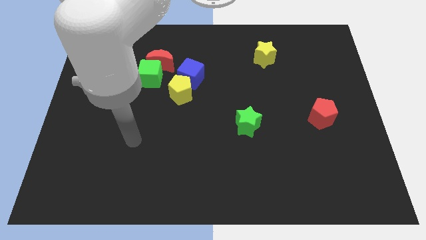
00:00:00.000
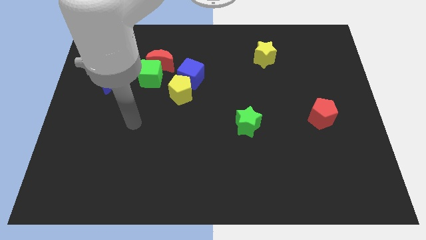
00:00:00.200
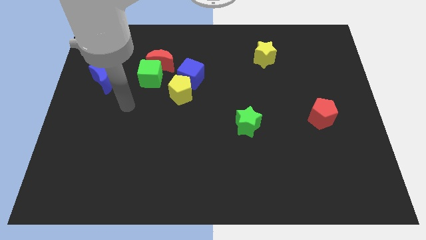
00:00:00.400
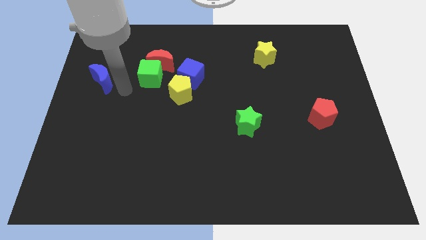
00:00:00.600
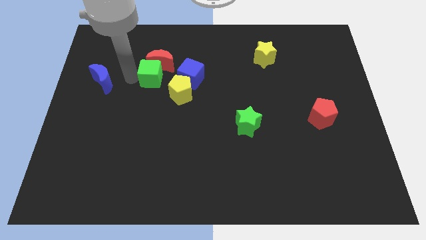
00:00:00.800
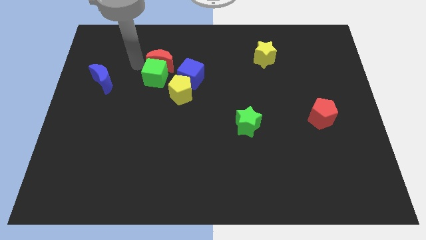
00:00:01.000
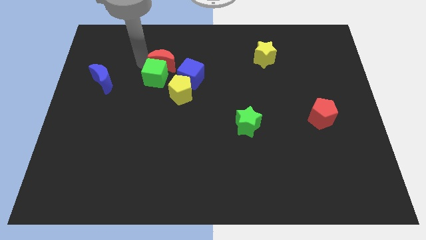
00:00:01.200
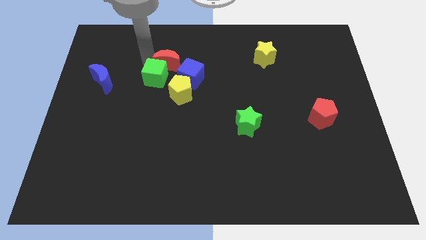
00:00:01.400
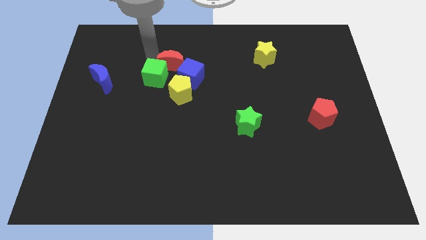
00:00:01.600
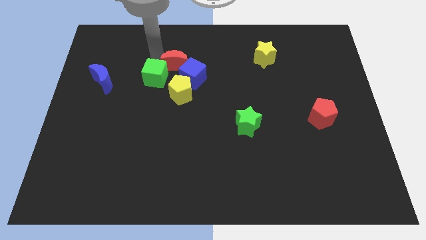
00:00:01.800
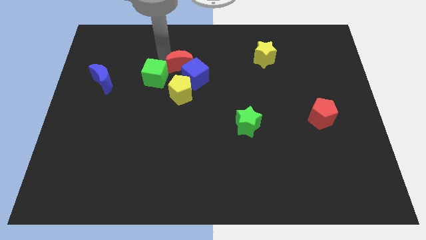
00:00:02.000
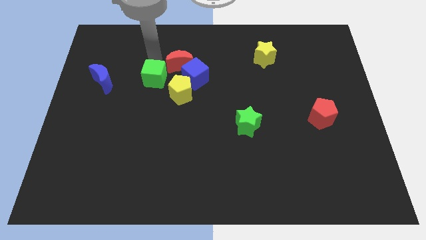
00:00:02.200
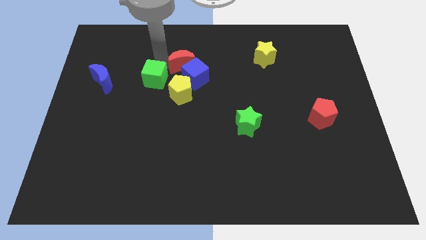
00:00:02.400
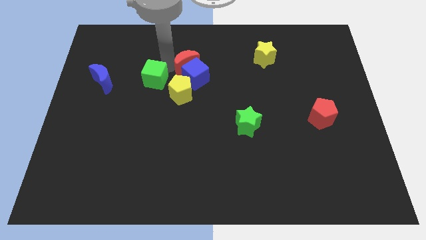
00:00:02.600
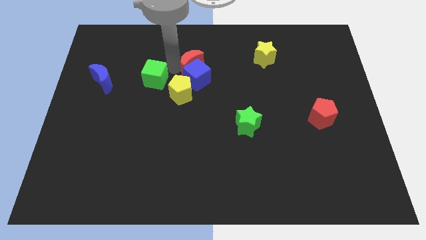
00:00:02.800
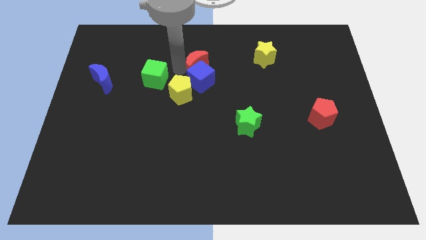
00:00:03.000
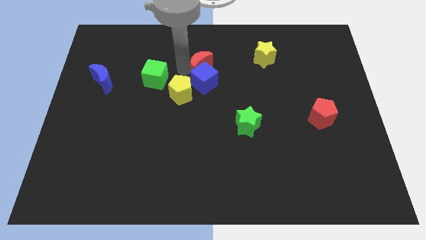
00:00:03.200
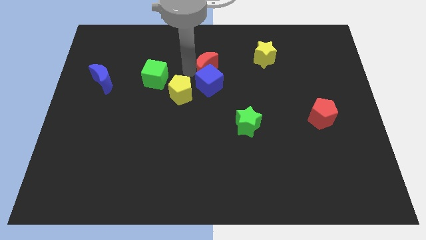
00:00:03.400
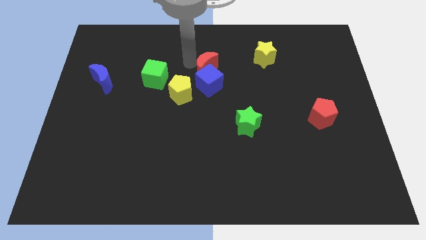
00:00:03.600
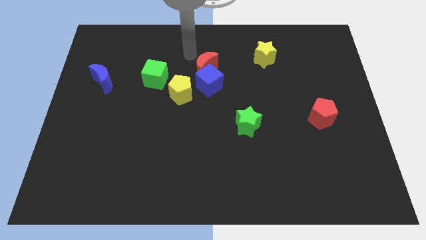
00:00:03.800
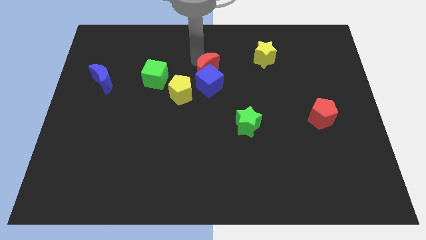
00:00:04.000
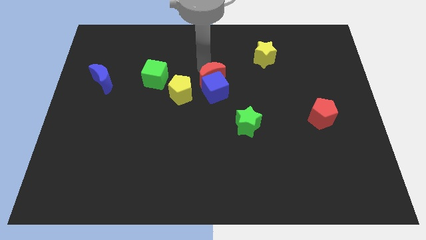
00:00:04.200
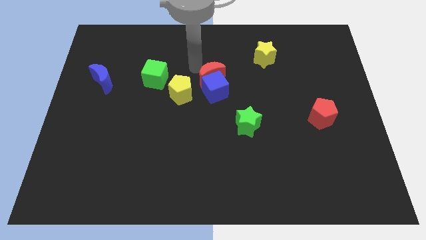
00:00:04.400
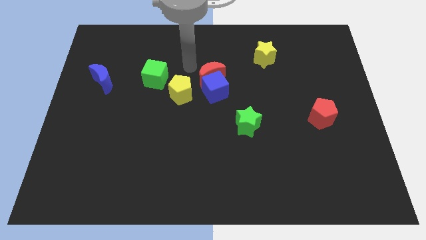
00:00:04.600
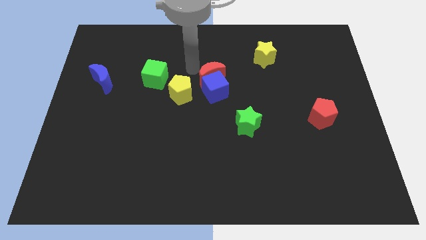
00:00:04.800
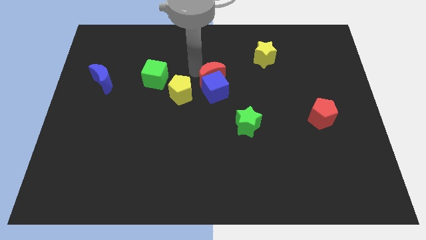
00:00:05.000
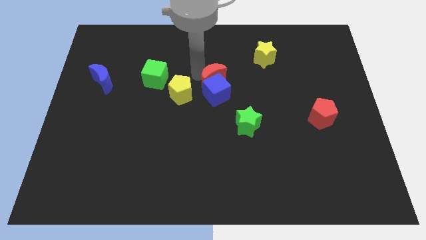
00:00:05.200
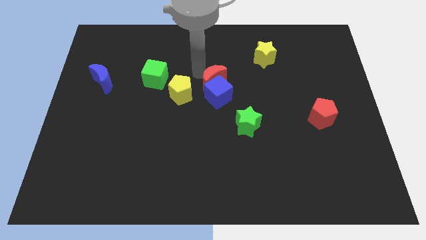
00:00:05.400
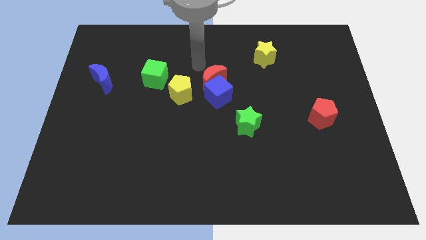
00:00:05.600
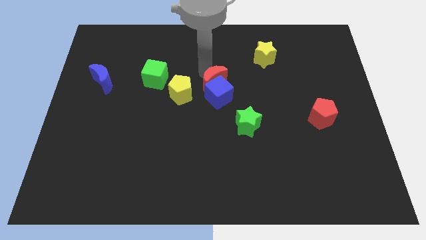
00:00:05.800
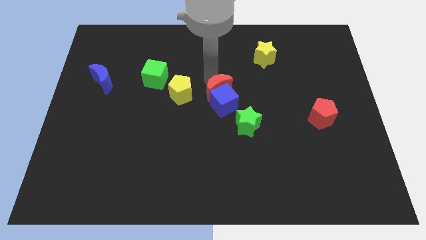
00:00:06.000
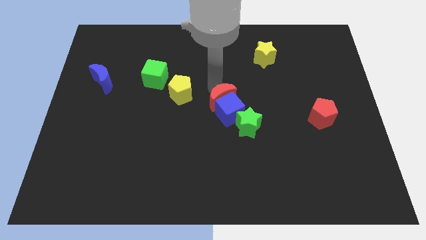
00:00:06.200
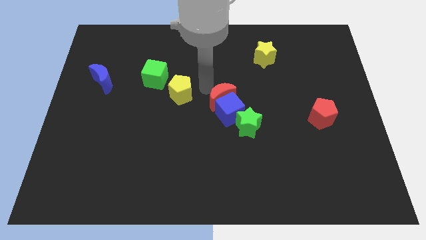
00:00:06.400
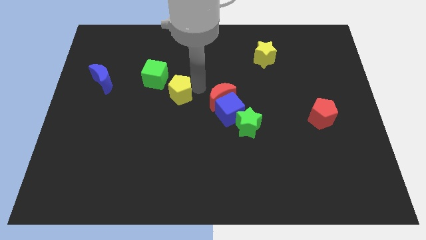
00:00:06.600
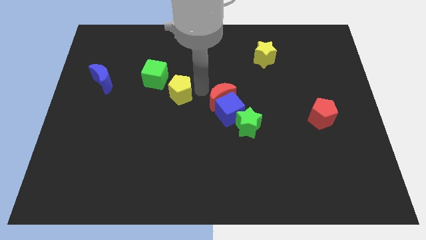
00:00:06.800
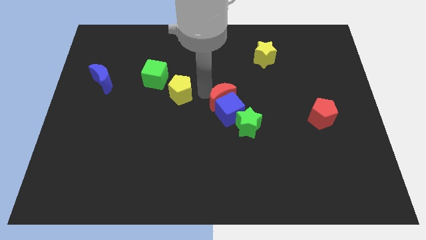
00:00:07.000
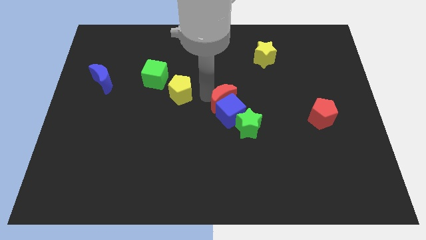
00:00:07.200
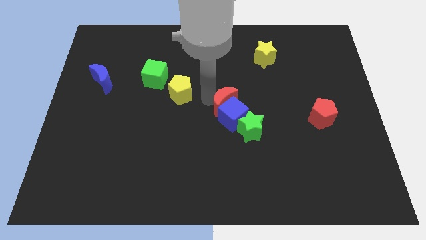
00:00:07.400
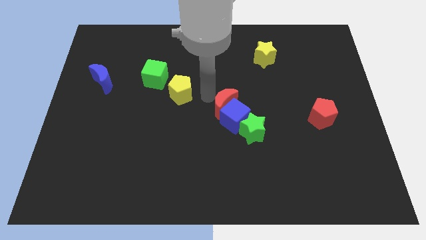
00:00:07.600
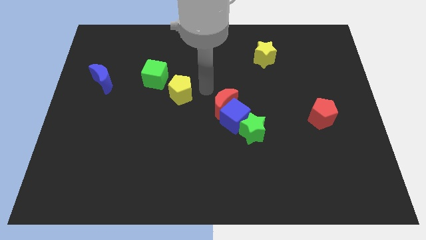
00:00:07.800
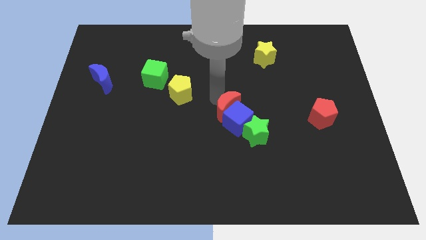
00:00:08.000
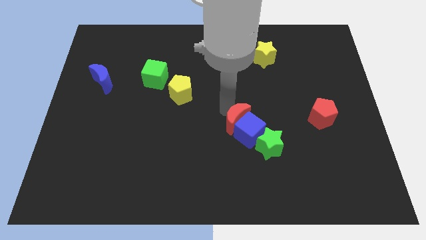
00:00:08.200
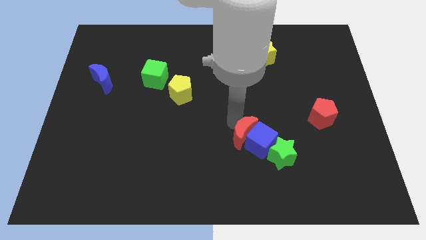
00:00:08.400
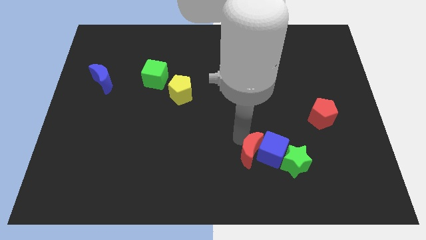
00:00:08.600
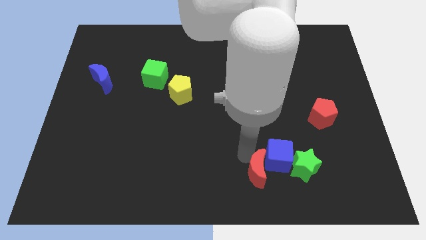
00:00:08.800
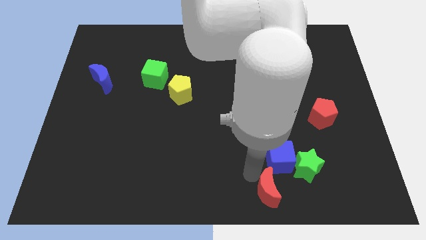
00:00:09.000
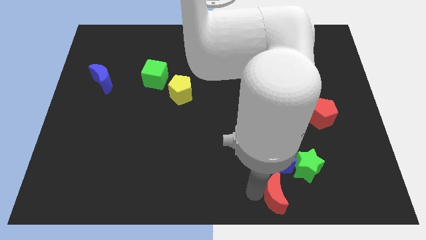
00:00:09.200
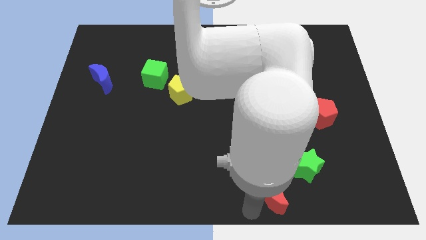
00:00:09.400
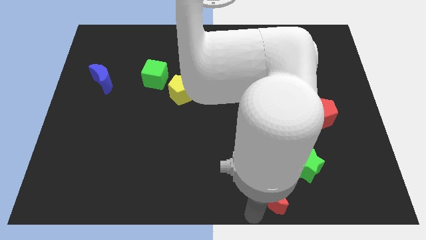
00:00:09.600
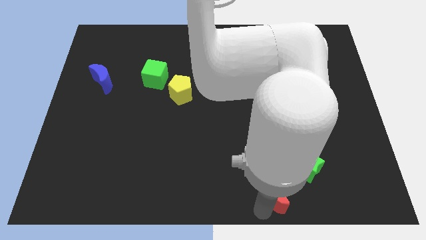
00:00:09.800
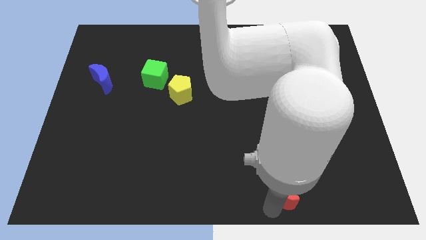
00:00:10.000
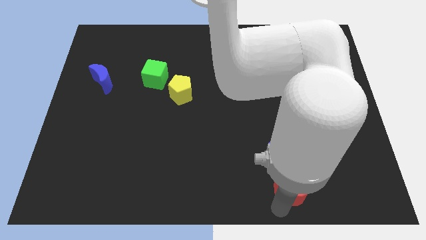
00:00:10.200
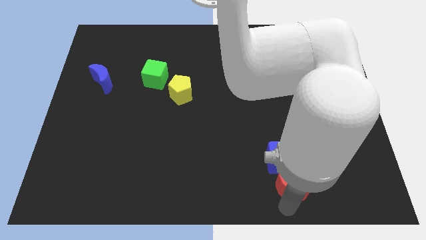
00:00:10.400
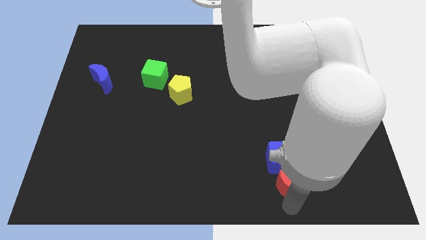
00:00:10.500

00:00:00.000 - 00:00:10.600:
put the red moon towards the green star

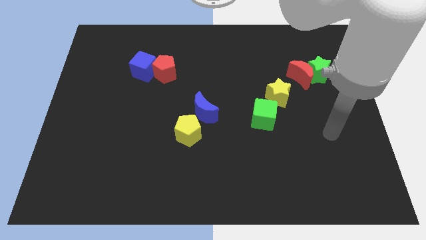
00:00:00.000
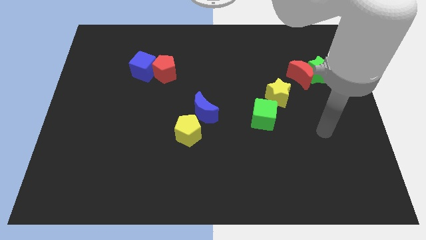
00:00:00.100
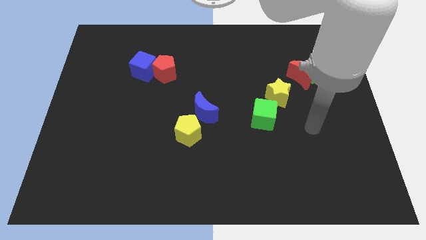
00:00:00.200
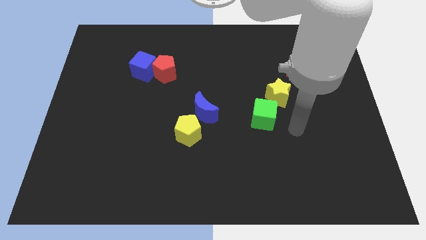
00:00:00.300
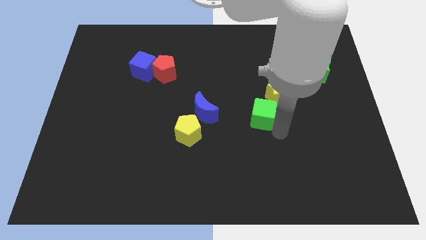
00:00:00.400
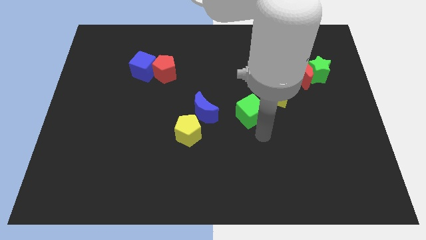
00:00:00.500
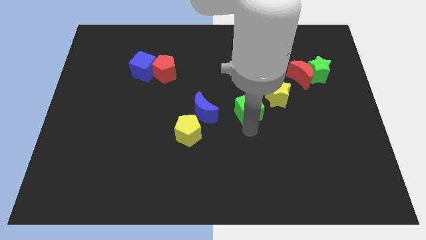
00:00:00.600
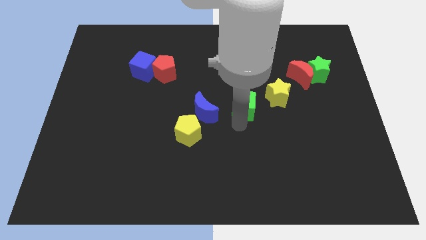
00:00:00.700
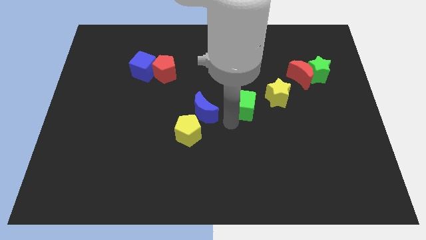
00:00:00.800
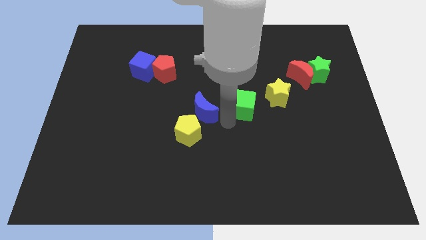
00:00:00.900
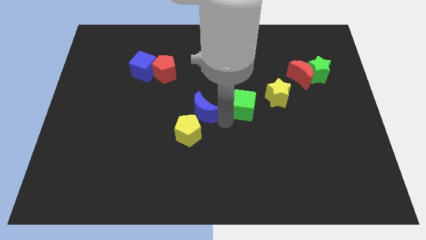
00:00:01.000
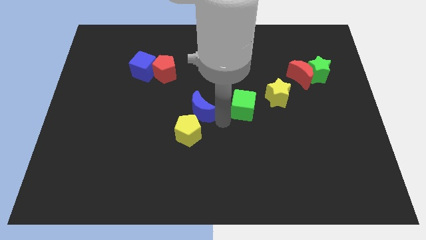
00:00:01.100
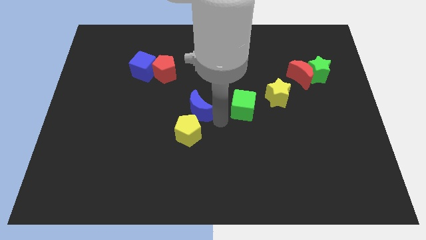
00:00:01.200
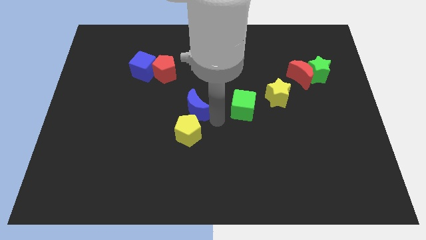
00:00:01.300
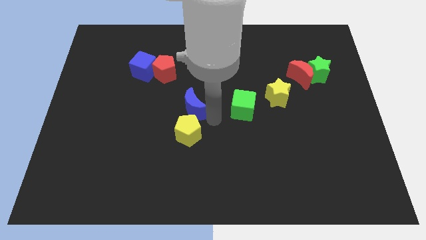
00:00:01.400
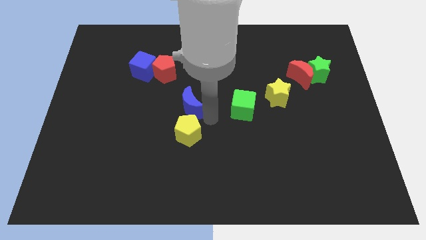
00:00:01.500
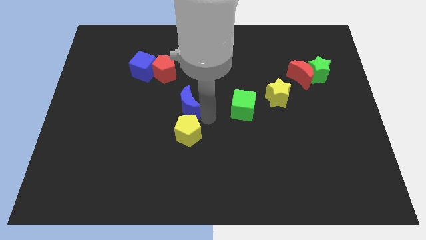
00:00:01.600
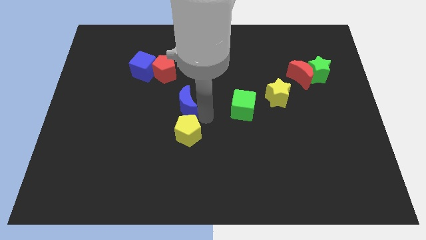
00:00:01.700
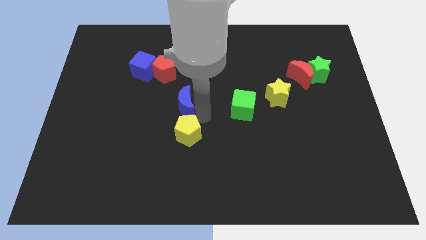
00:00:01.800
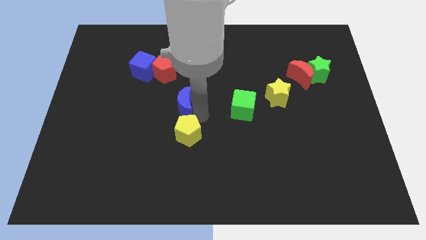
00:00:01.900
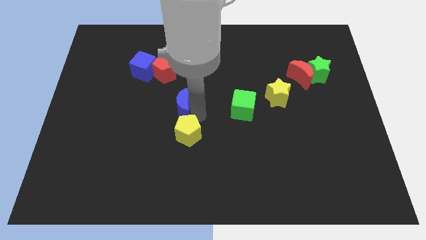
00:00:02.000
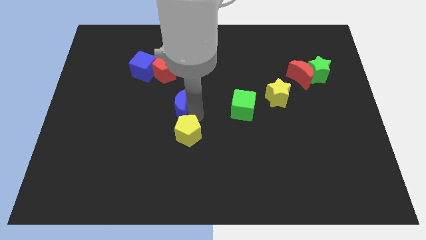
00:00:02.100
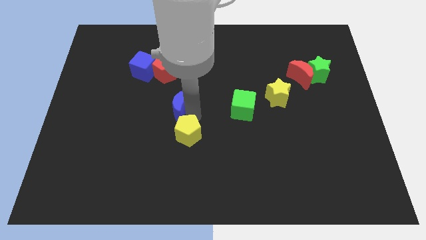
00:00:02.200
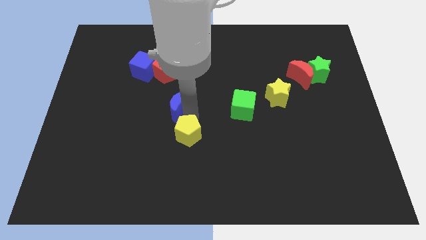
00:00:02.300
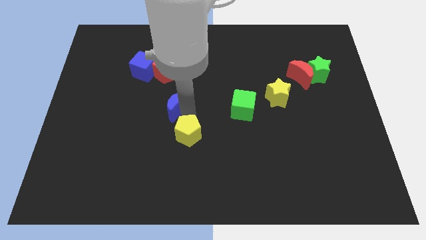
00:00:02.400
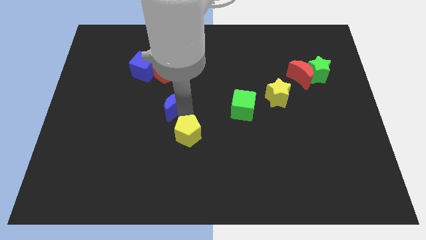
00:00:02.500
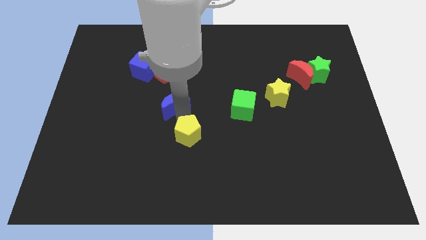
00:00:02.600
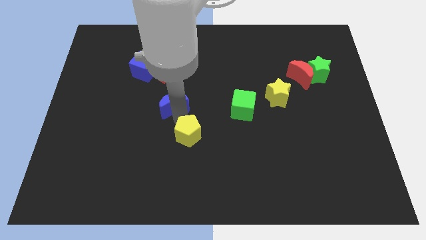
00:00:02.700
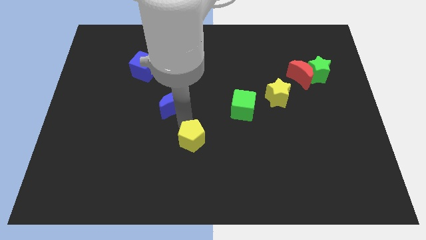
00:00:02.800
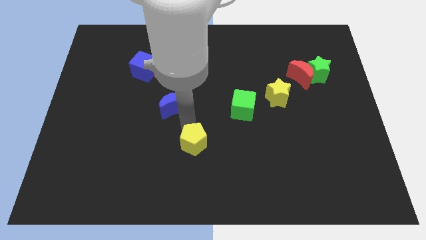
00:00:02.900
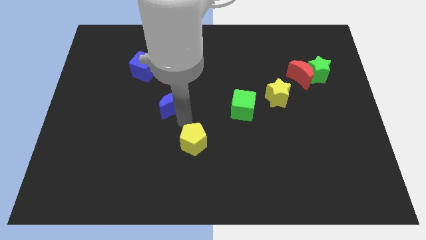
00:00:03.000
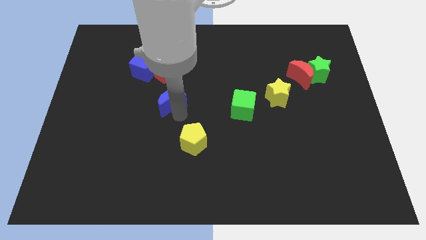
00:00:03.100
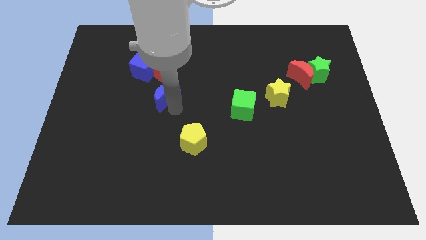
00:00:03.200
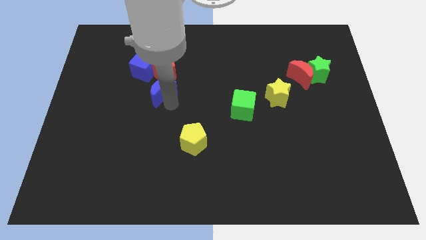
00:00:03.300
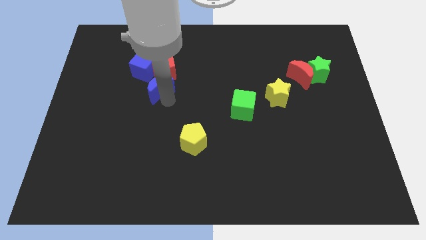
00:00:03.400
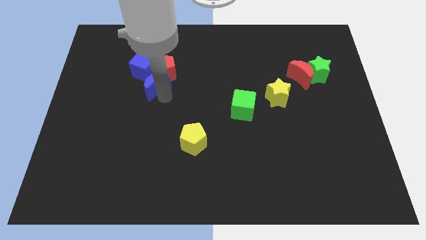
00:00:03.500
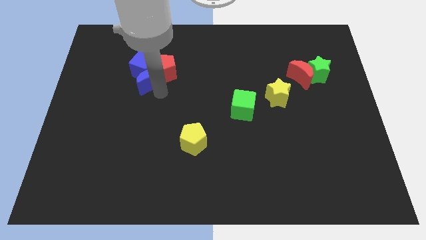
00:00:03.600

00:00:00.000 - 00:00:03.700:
push the blue moon close to the blue cube
